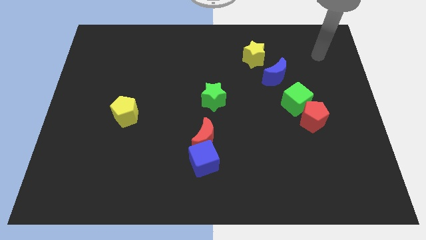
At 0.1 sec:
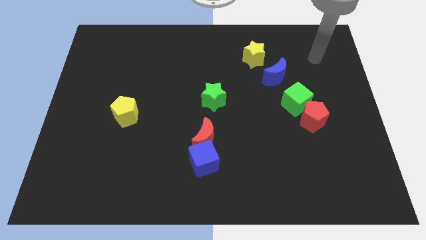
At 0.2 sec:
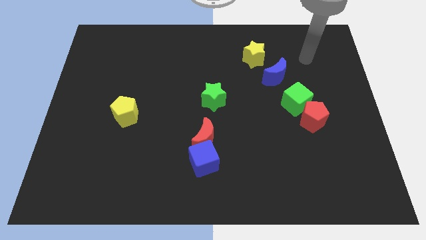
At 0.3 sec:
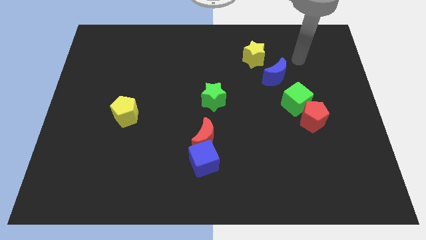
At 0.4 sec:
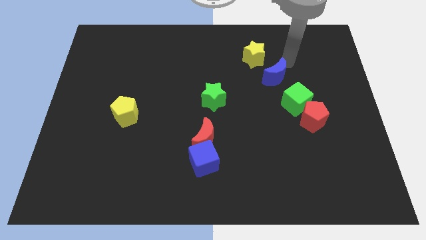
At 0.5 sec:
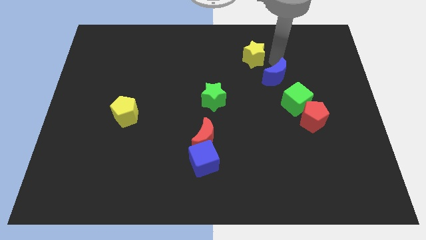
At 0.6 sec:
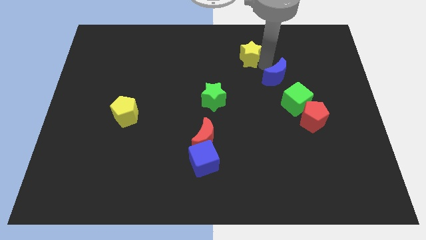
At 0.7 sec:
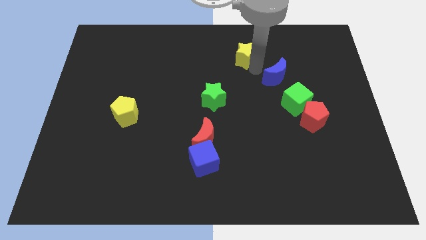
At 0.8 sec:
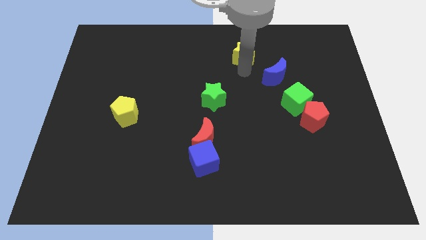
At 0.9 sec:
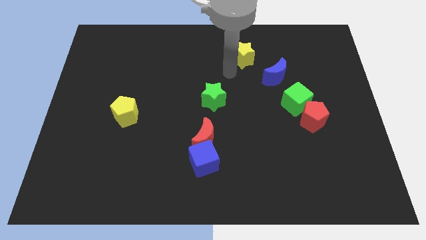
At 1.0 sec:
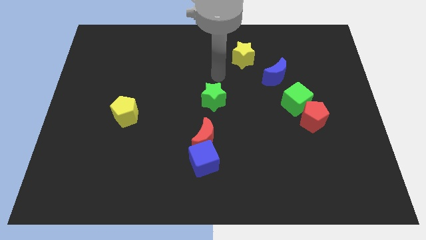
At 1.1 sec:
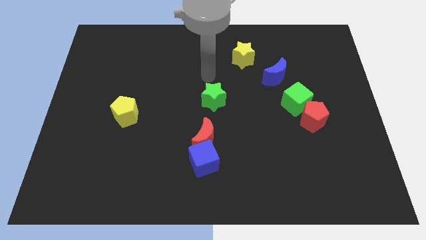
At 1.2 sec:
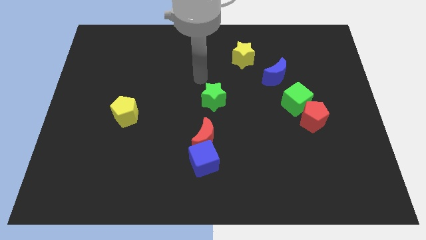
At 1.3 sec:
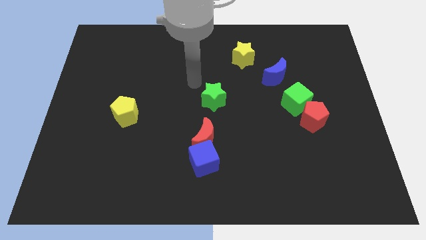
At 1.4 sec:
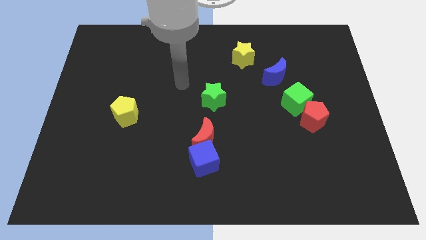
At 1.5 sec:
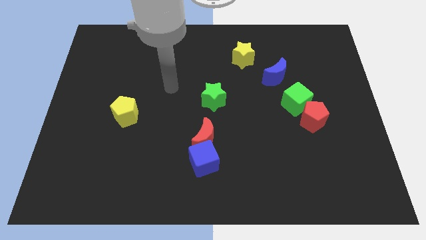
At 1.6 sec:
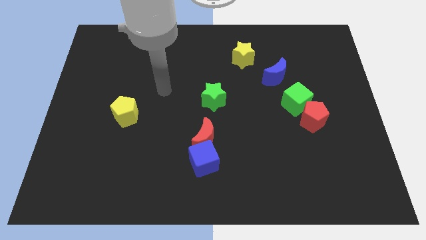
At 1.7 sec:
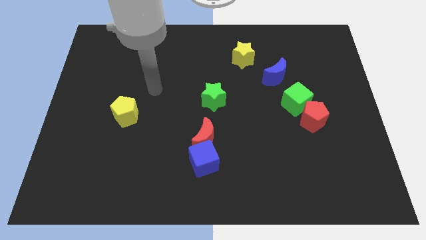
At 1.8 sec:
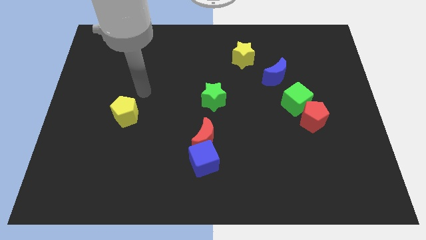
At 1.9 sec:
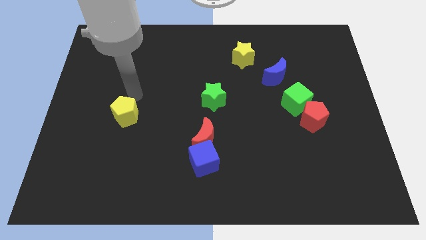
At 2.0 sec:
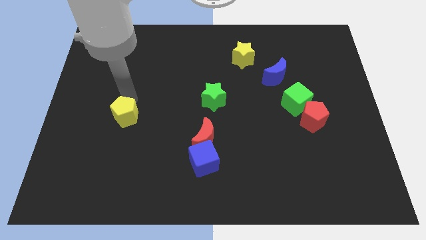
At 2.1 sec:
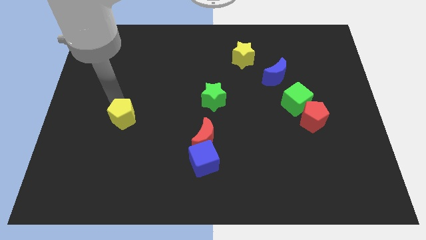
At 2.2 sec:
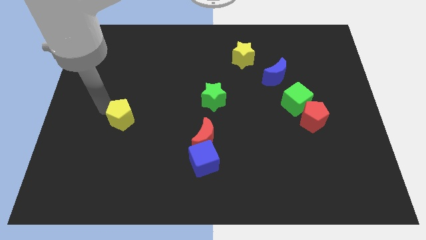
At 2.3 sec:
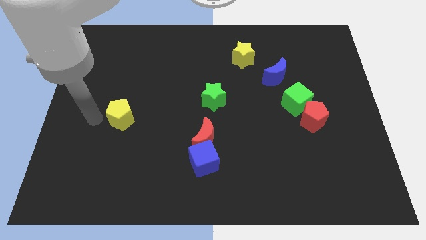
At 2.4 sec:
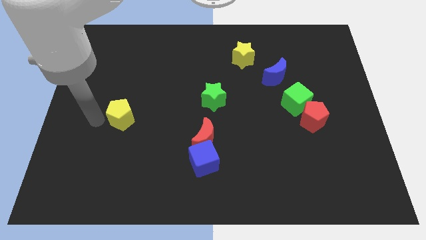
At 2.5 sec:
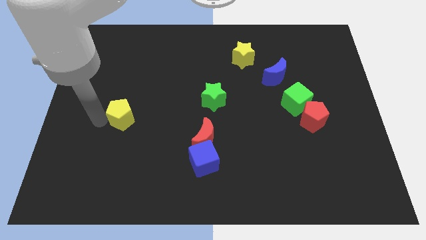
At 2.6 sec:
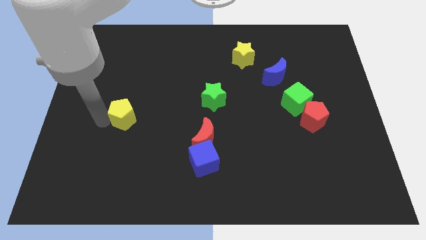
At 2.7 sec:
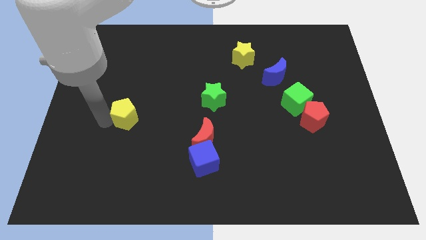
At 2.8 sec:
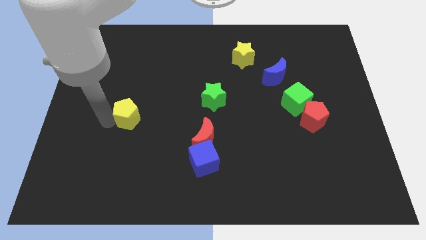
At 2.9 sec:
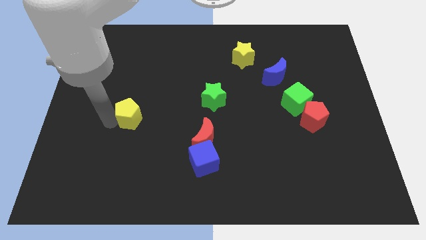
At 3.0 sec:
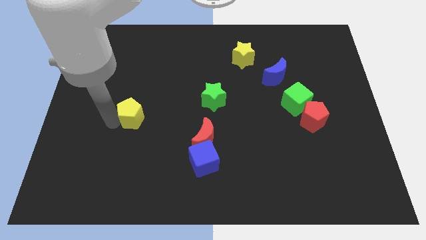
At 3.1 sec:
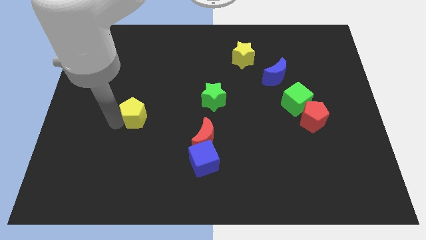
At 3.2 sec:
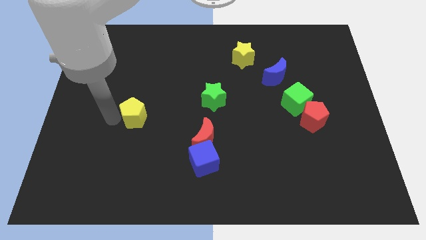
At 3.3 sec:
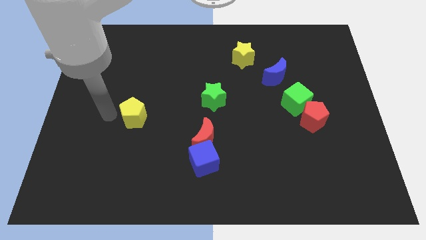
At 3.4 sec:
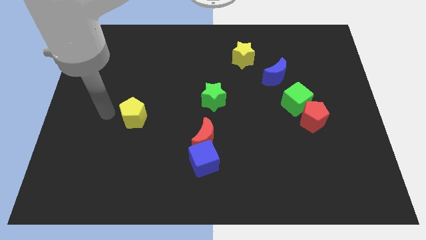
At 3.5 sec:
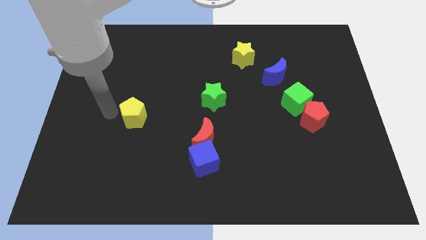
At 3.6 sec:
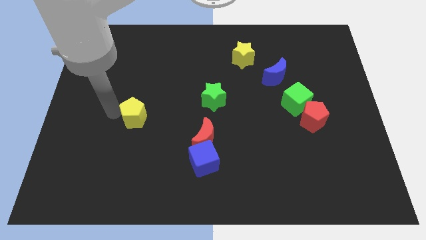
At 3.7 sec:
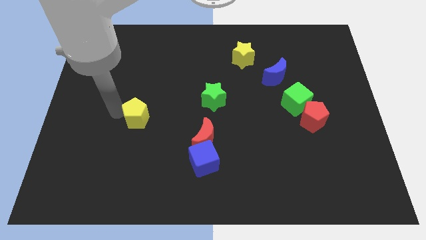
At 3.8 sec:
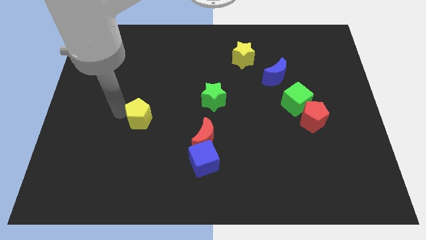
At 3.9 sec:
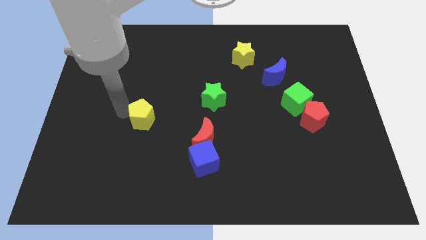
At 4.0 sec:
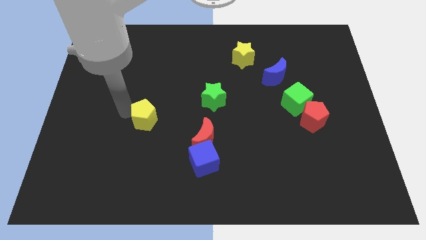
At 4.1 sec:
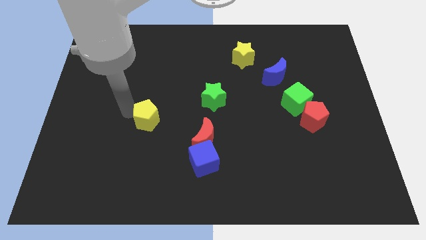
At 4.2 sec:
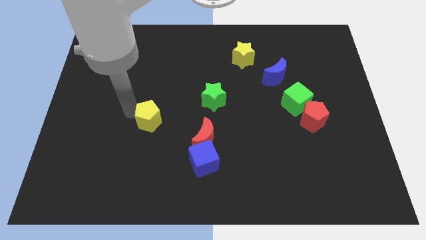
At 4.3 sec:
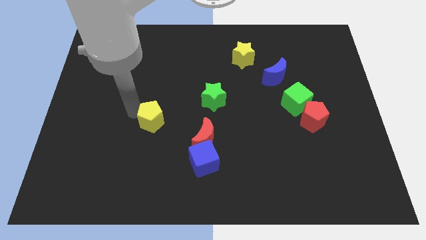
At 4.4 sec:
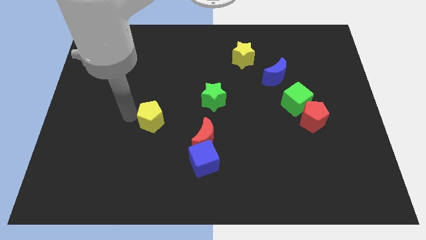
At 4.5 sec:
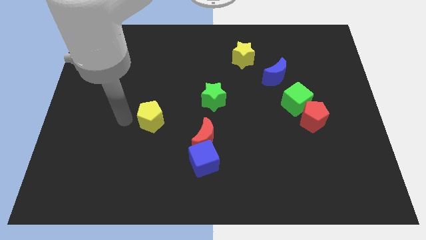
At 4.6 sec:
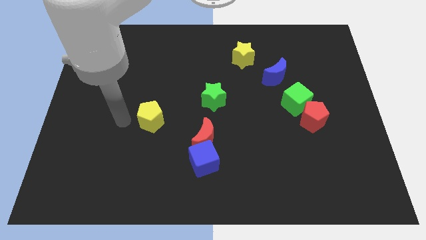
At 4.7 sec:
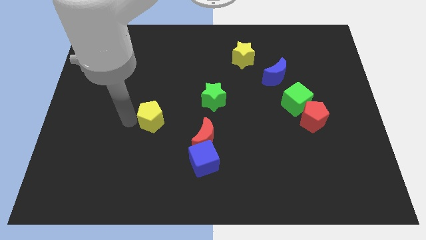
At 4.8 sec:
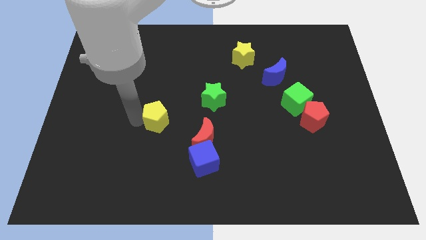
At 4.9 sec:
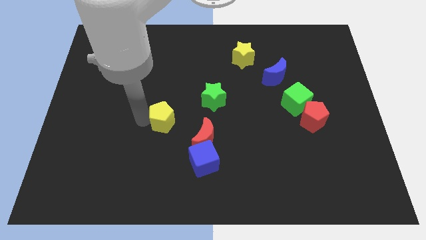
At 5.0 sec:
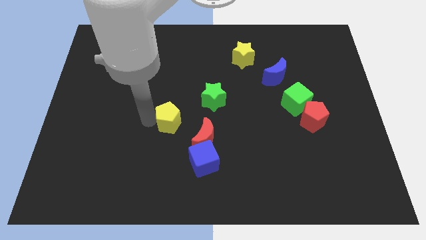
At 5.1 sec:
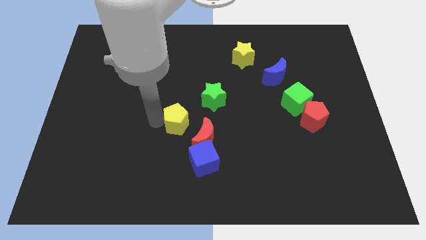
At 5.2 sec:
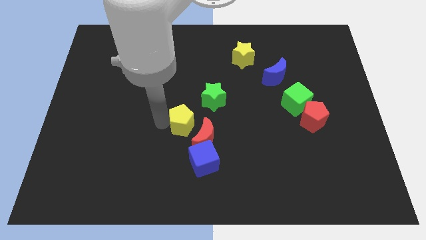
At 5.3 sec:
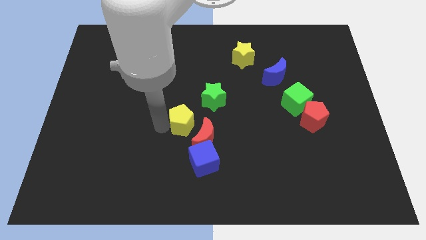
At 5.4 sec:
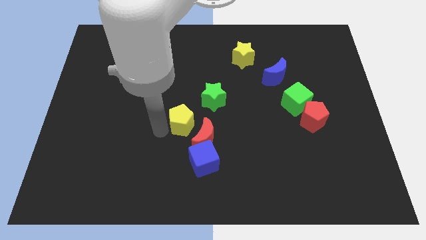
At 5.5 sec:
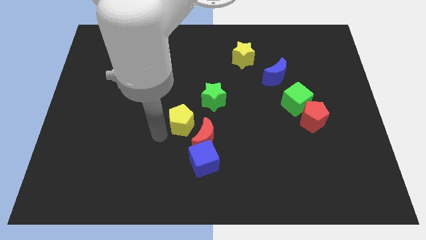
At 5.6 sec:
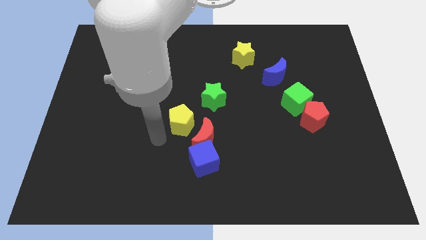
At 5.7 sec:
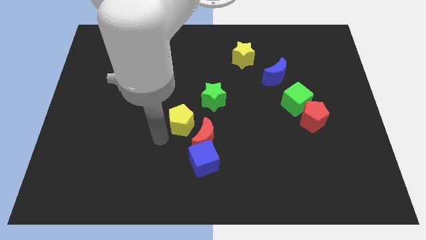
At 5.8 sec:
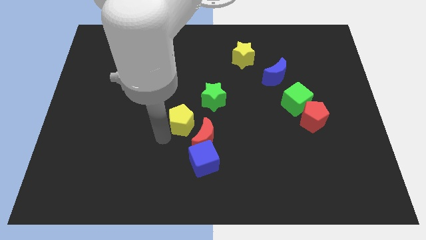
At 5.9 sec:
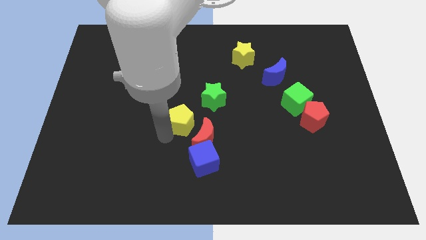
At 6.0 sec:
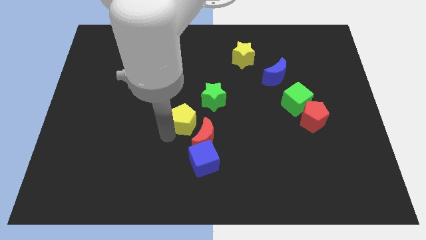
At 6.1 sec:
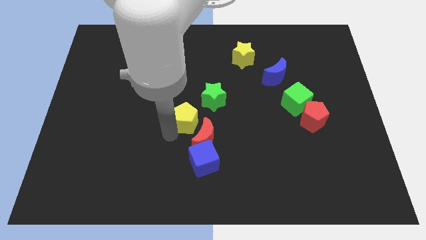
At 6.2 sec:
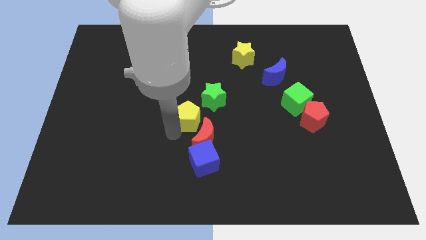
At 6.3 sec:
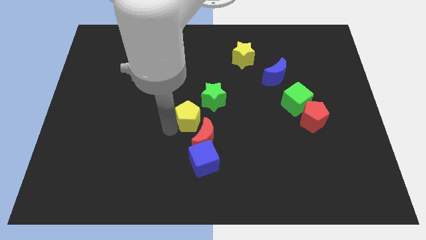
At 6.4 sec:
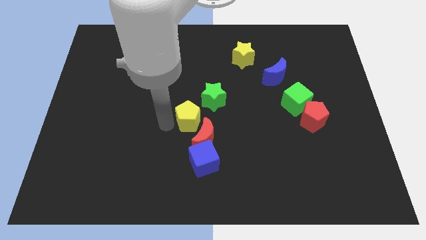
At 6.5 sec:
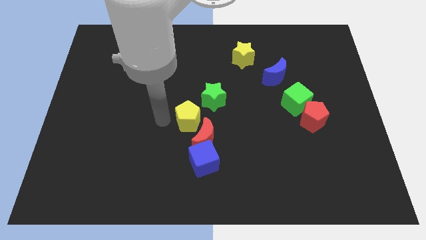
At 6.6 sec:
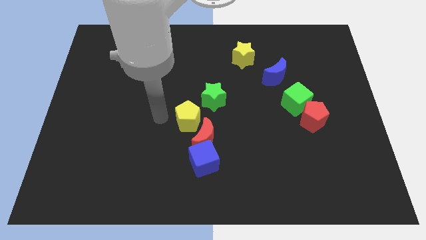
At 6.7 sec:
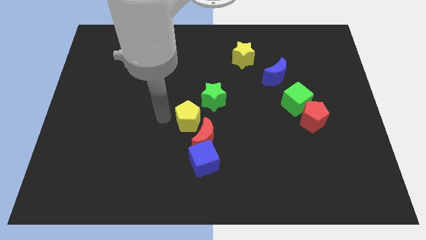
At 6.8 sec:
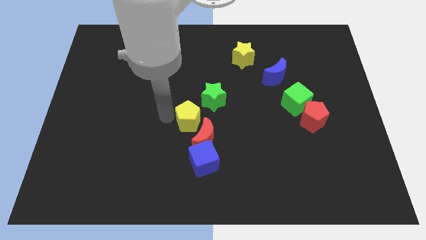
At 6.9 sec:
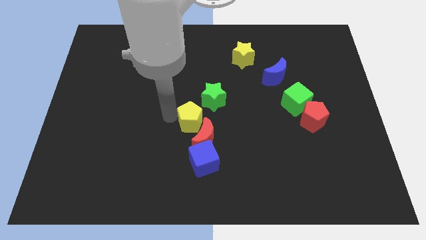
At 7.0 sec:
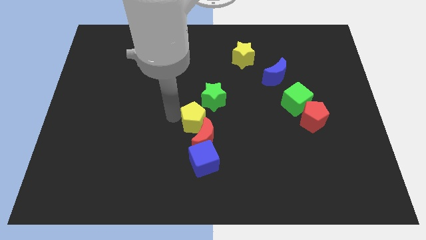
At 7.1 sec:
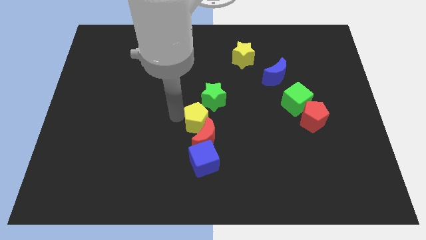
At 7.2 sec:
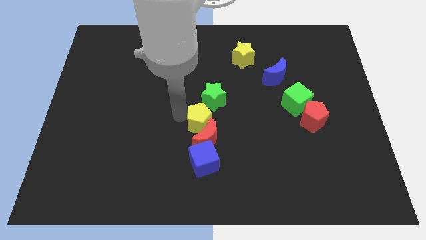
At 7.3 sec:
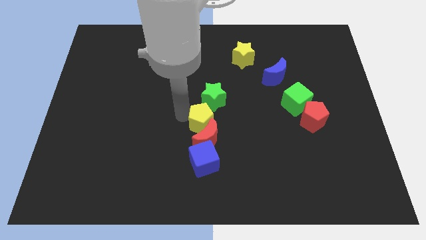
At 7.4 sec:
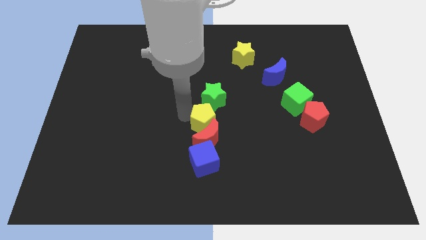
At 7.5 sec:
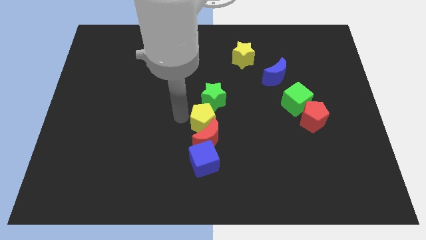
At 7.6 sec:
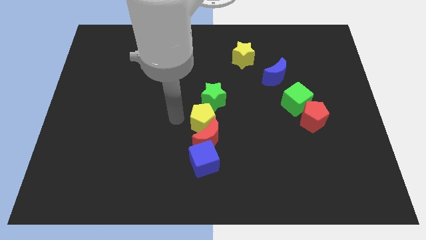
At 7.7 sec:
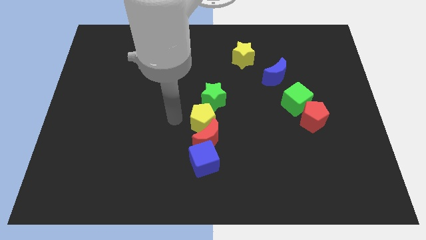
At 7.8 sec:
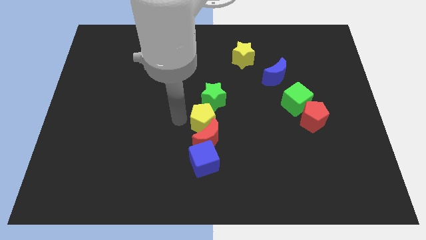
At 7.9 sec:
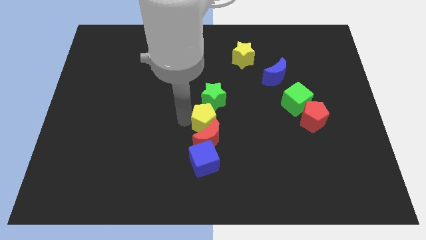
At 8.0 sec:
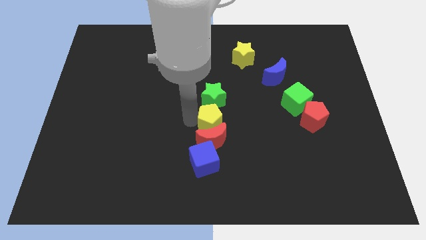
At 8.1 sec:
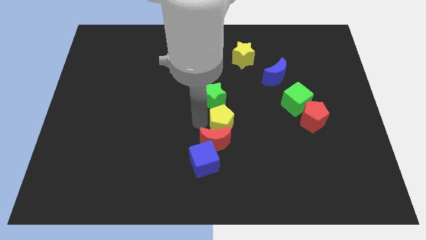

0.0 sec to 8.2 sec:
move the yellow pentagon right
